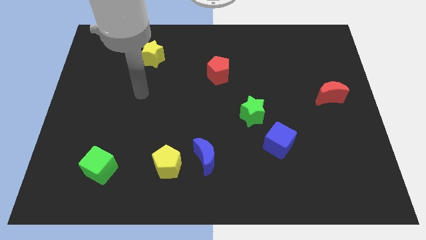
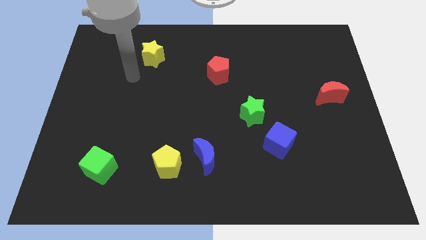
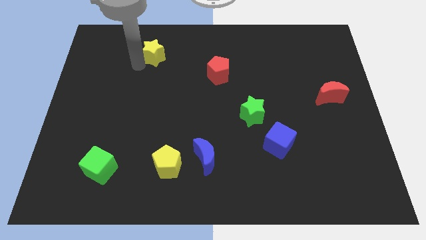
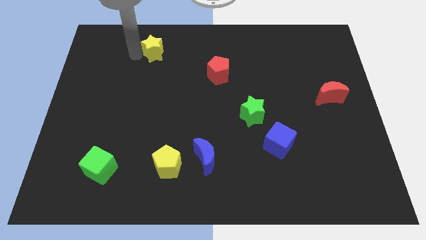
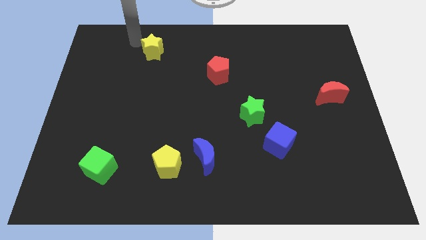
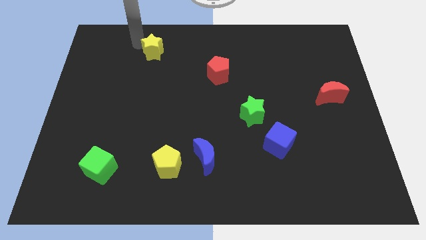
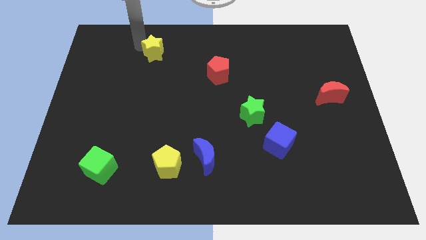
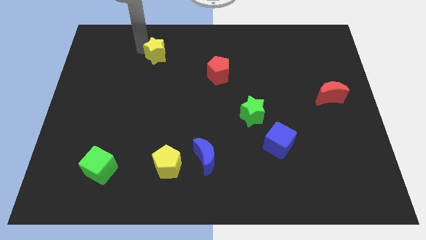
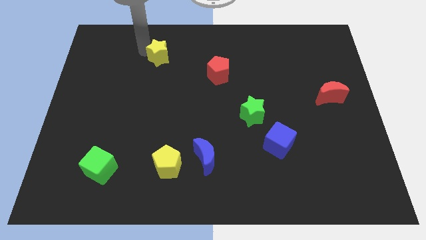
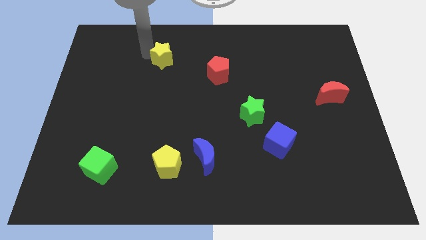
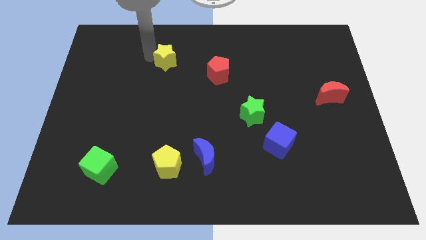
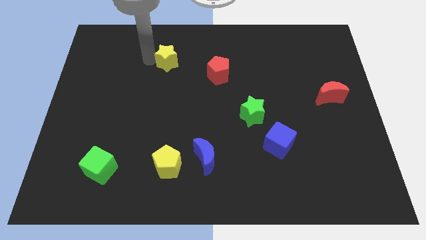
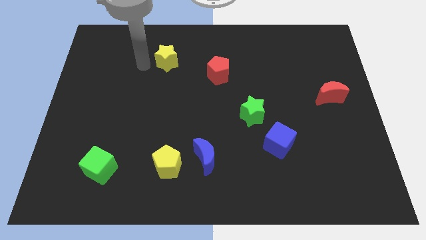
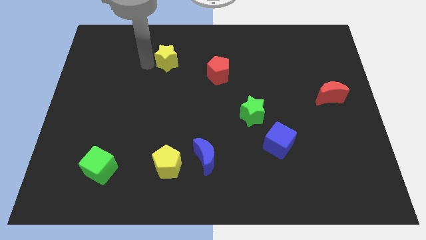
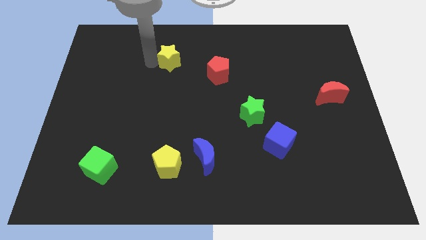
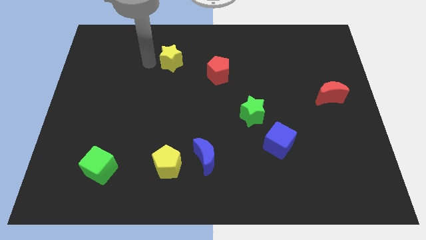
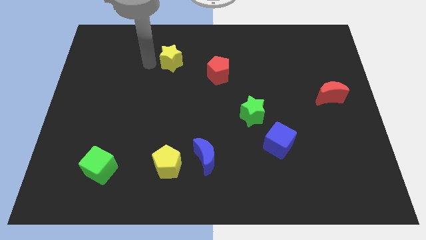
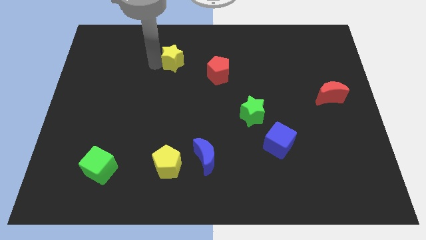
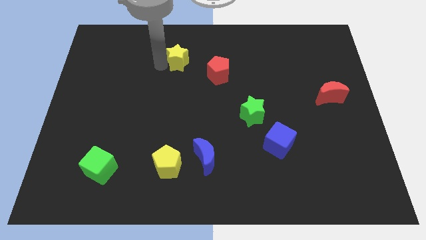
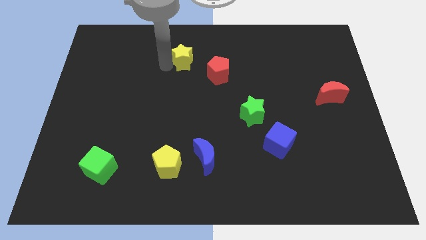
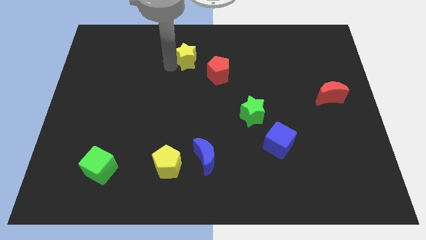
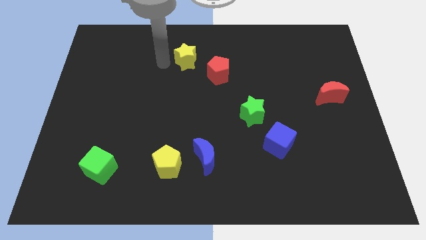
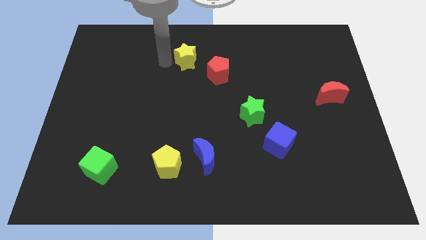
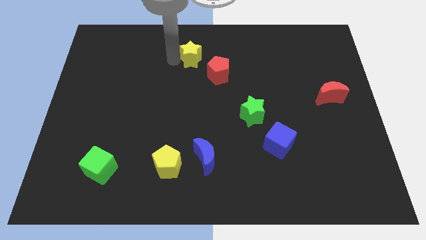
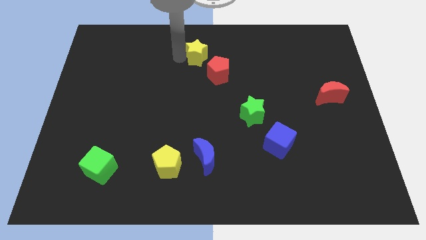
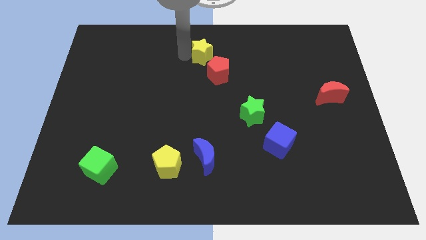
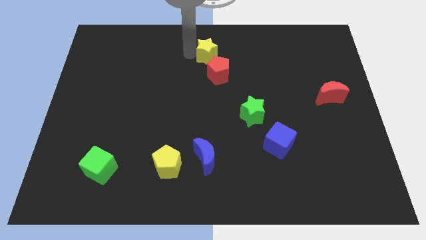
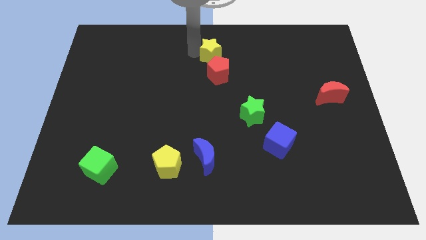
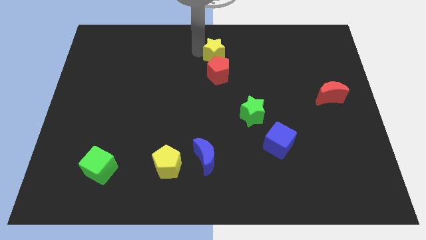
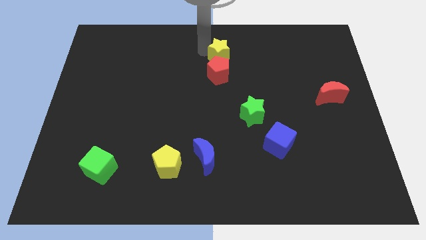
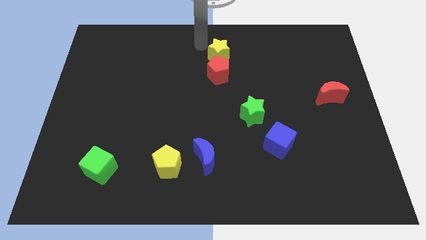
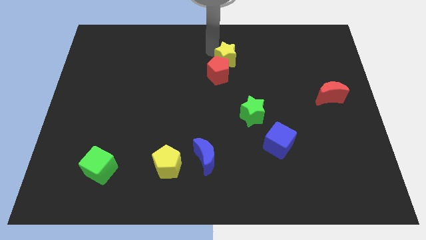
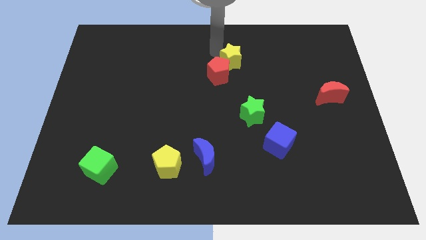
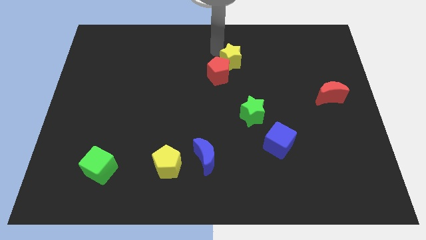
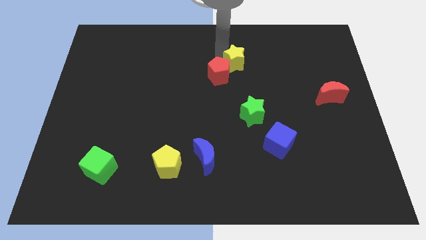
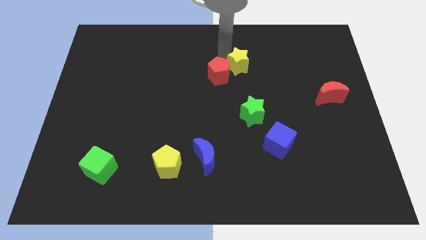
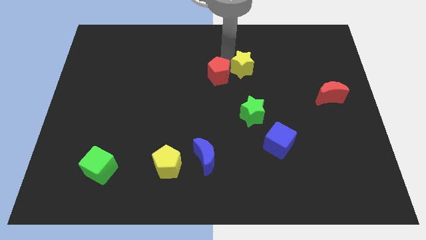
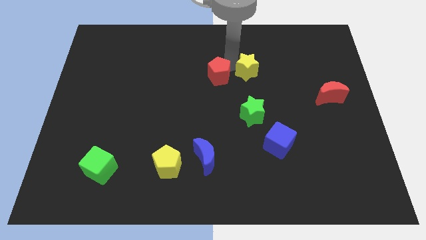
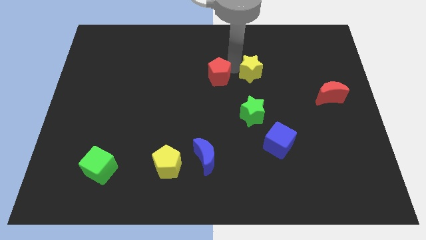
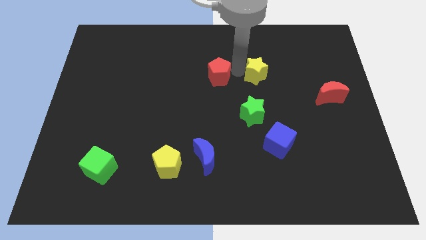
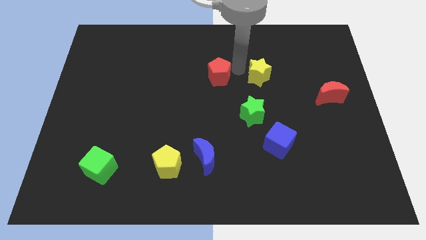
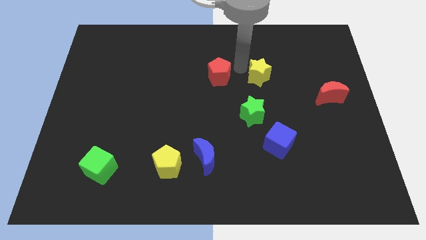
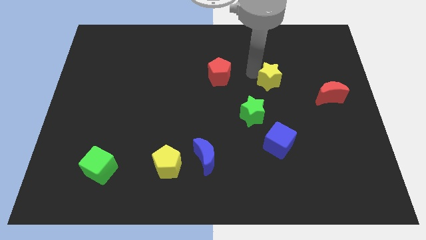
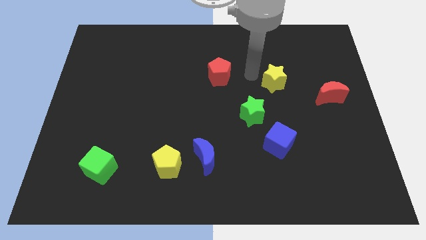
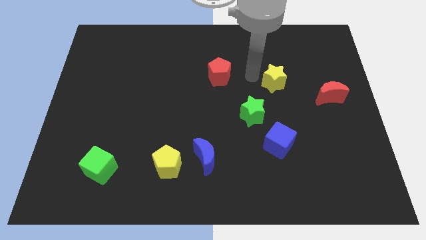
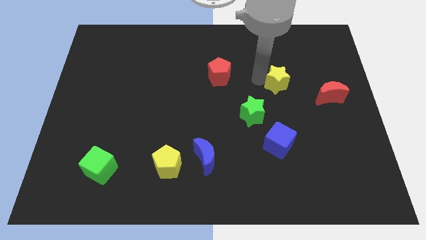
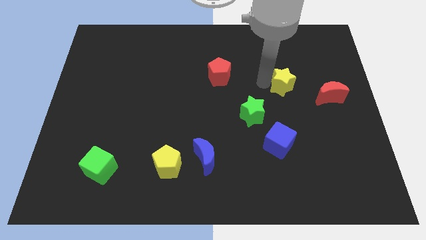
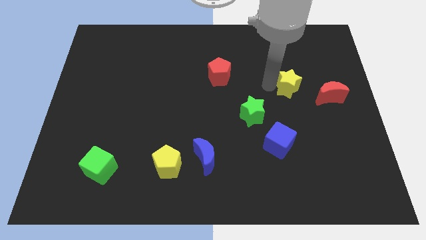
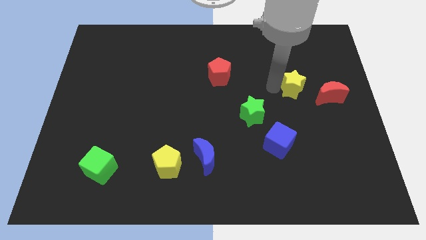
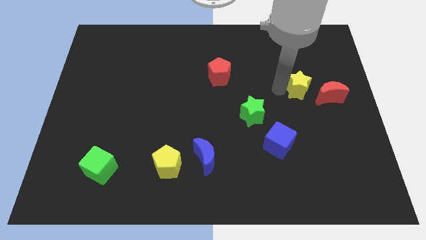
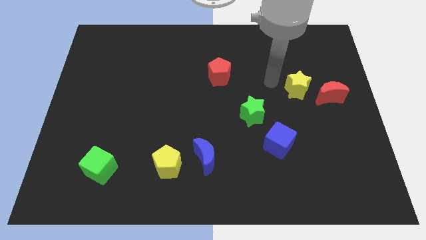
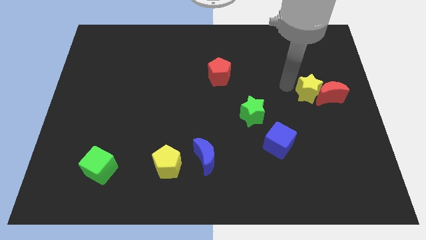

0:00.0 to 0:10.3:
push the yellow star next to the red moon

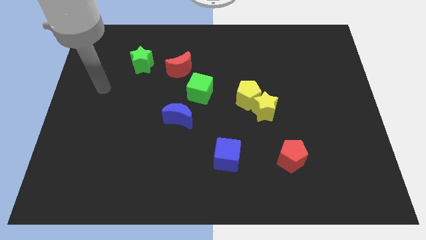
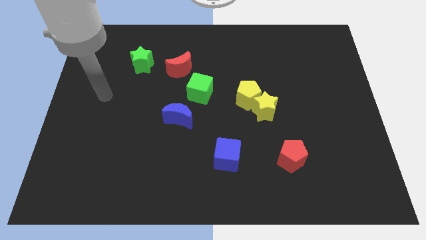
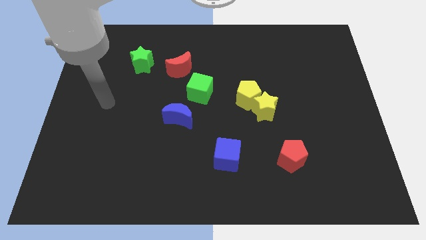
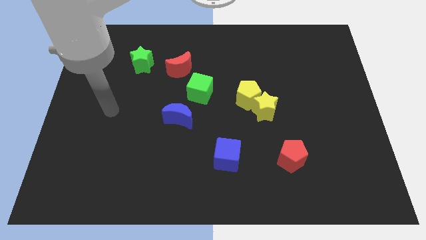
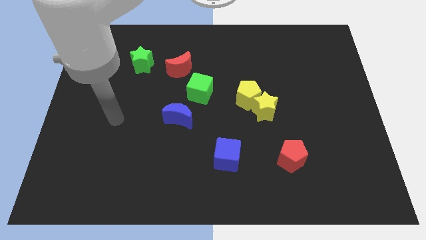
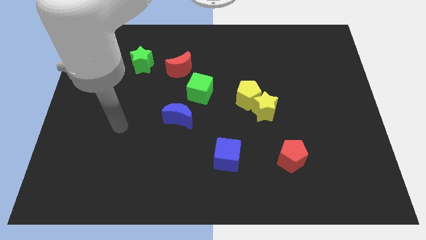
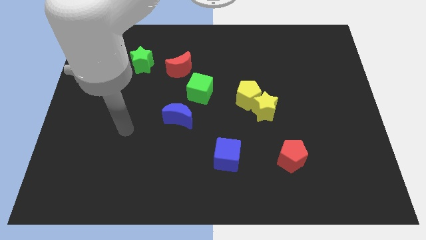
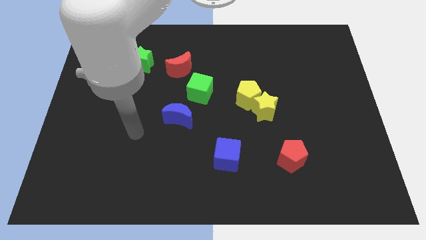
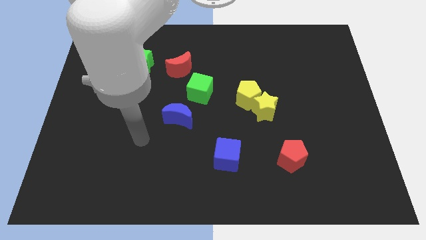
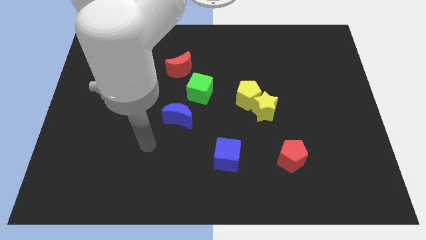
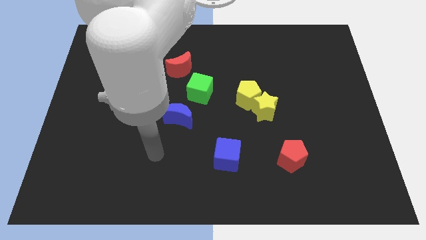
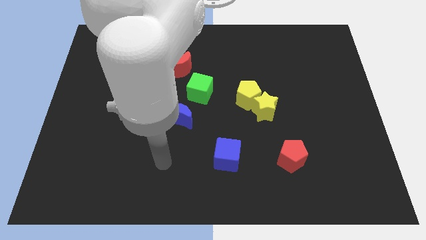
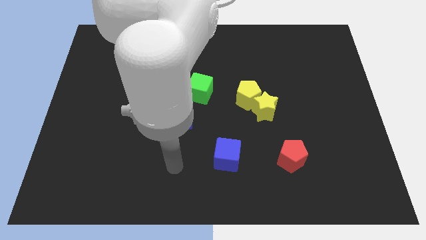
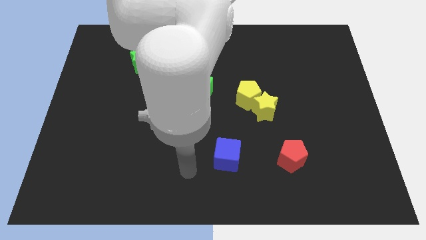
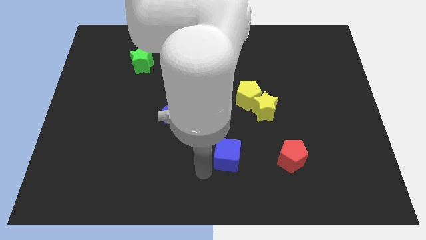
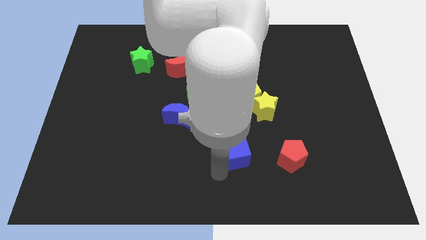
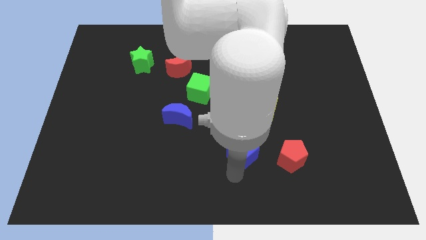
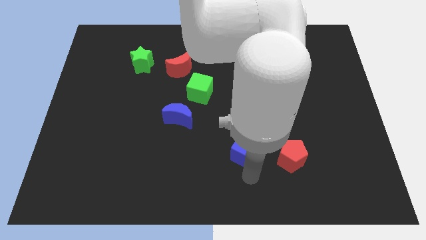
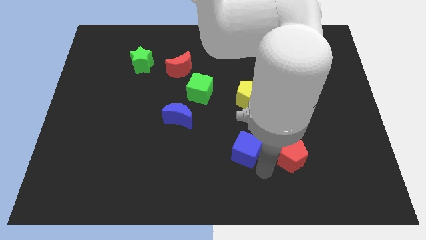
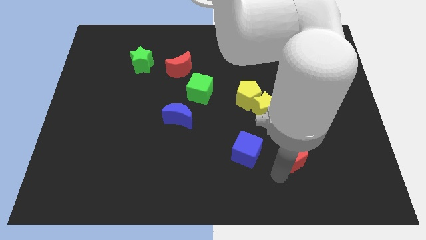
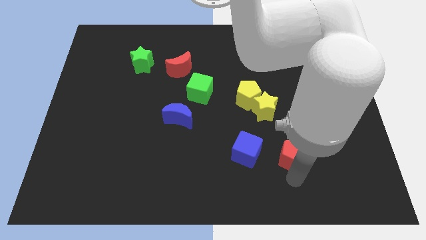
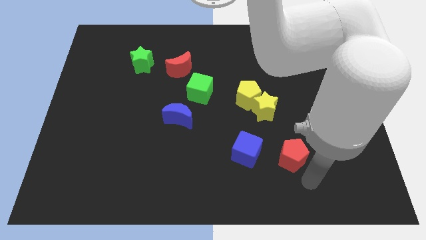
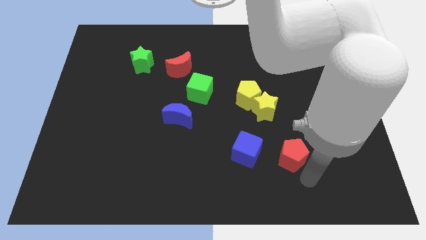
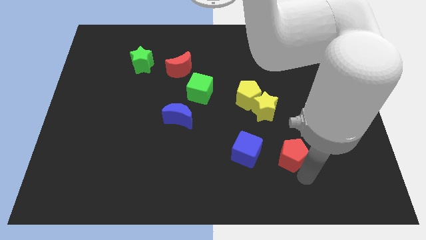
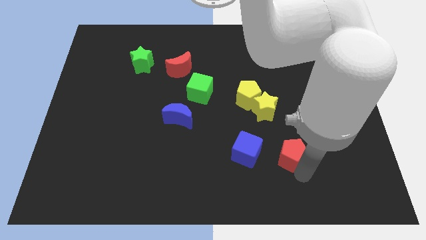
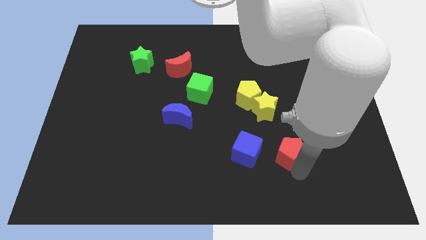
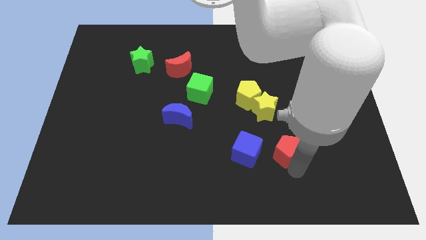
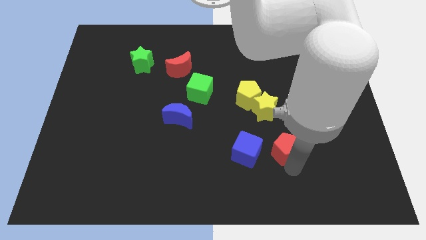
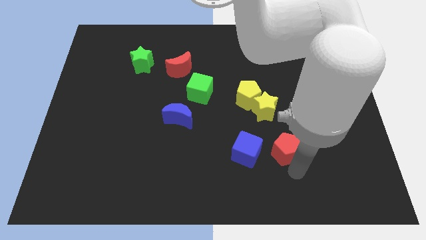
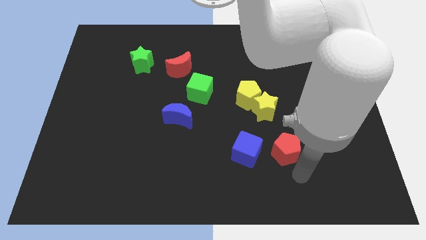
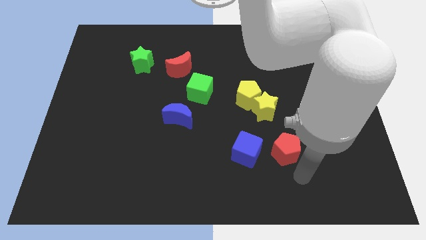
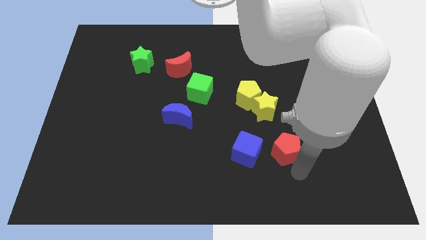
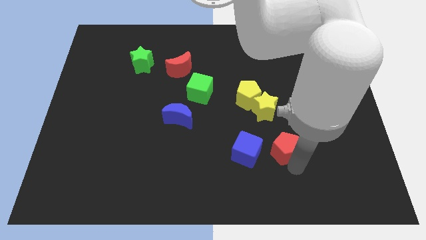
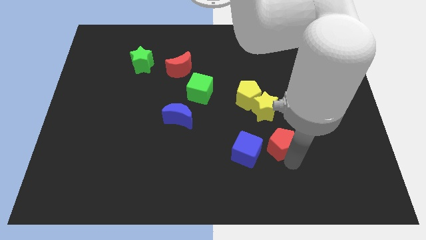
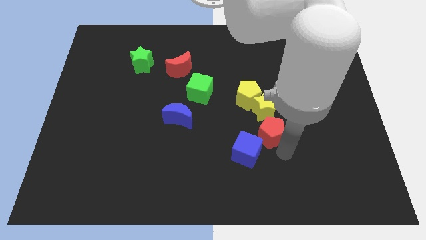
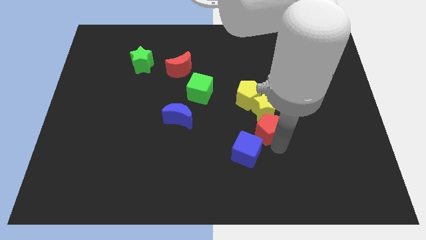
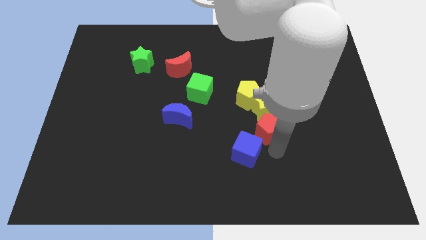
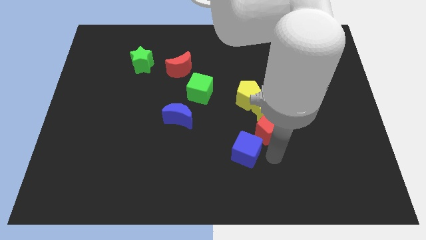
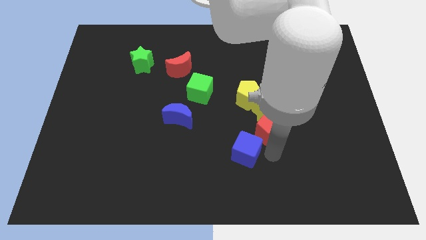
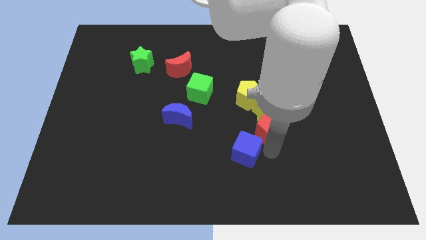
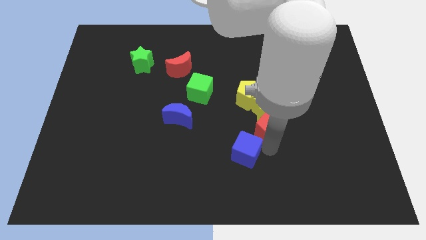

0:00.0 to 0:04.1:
move the red pentagon towards the yellow star
